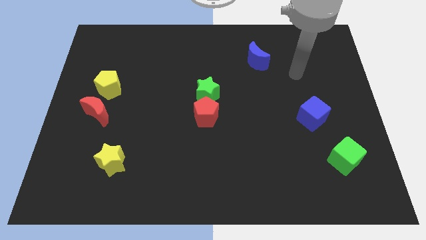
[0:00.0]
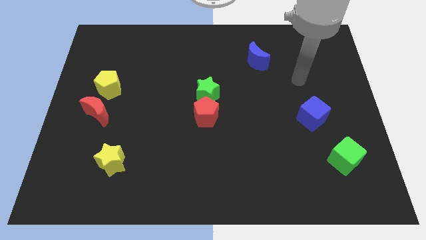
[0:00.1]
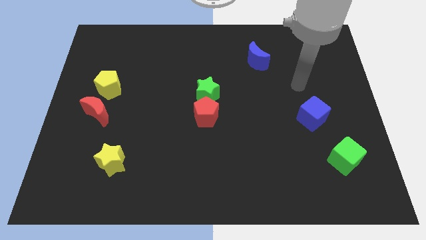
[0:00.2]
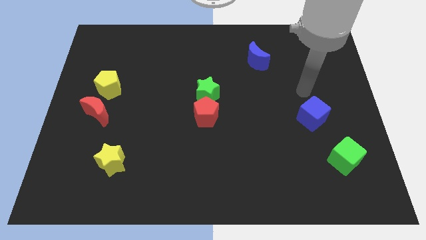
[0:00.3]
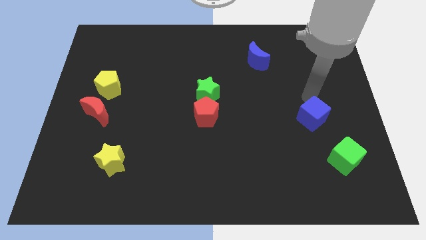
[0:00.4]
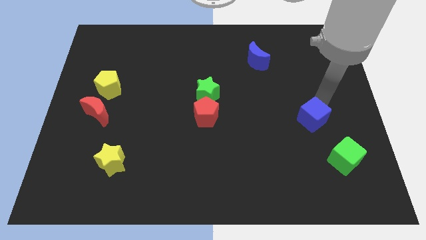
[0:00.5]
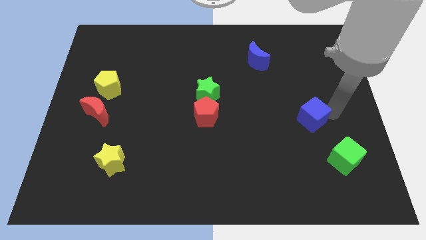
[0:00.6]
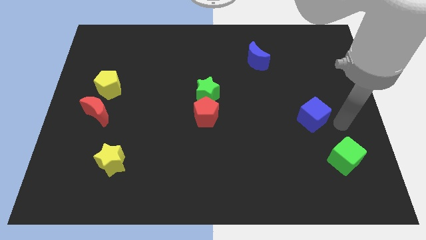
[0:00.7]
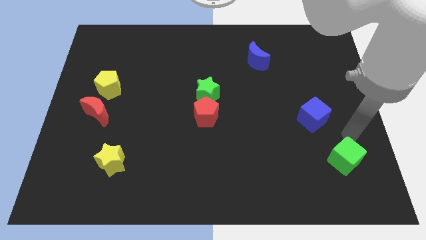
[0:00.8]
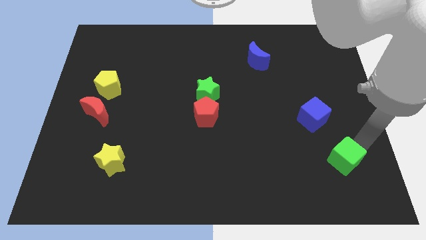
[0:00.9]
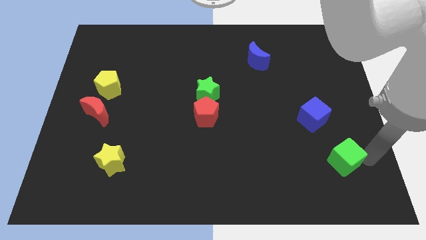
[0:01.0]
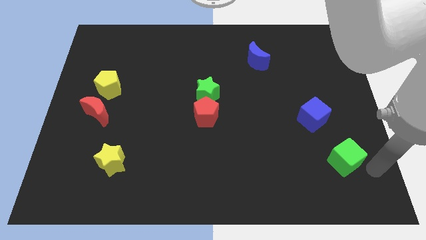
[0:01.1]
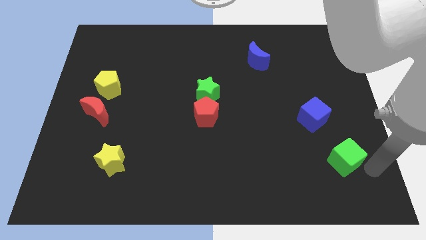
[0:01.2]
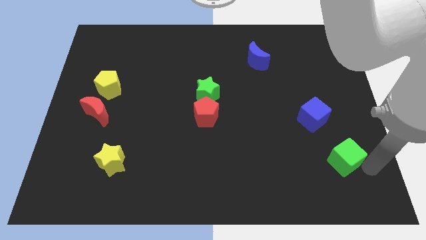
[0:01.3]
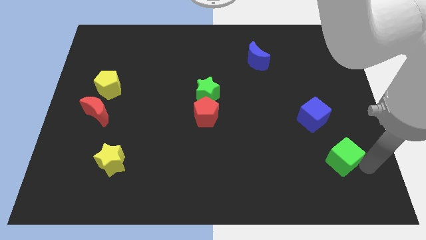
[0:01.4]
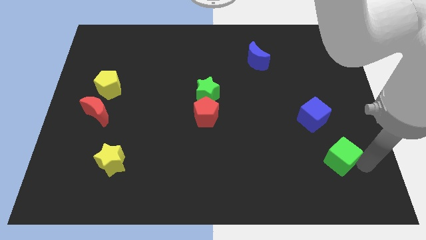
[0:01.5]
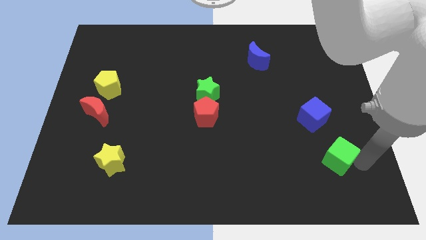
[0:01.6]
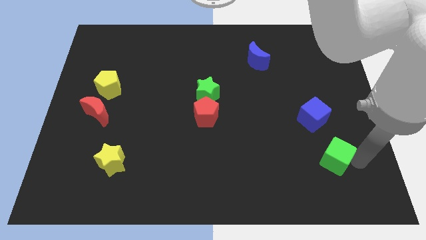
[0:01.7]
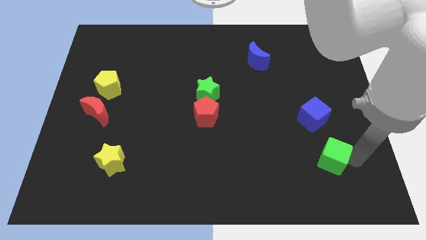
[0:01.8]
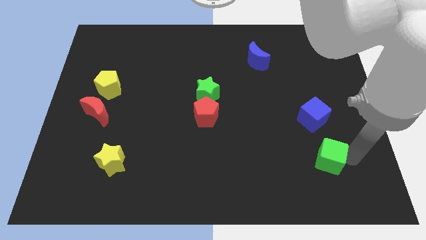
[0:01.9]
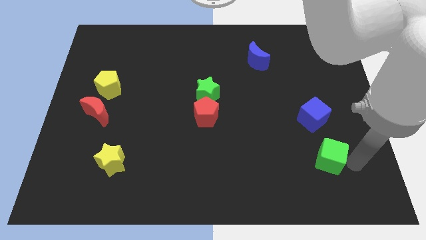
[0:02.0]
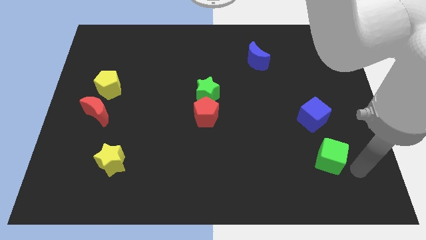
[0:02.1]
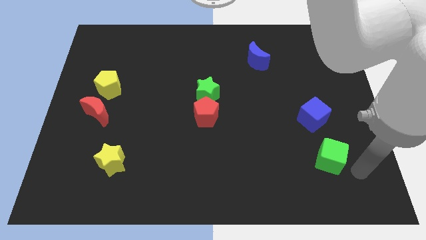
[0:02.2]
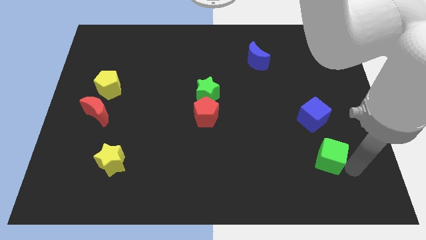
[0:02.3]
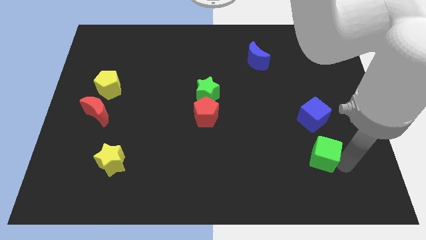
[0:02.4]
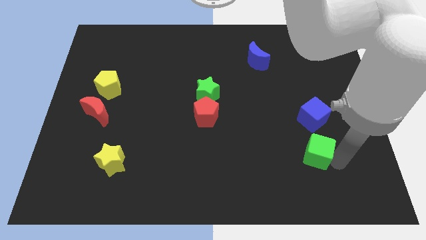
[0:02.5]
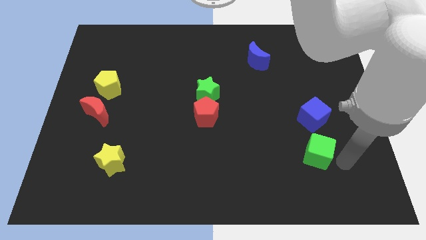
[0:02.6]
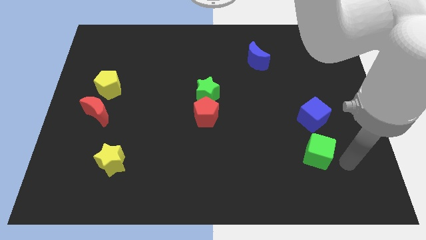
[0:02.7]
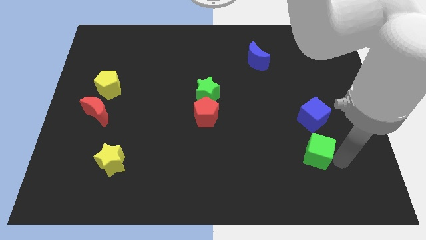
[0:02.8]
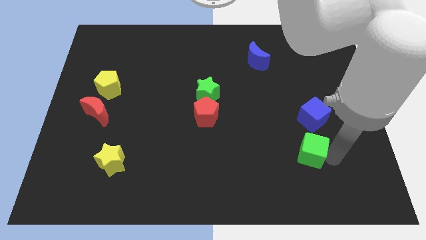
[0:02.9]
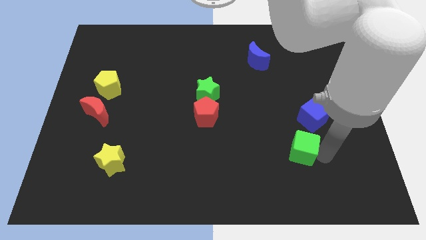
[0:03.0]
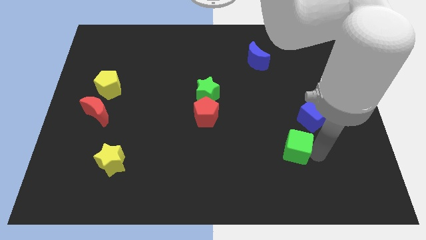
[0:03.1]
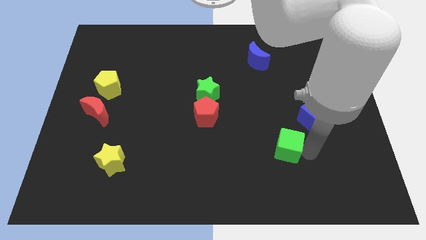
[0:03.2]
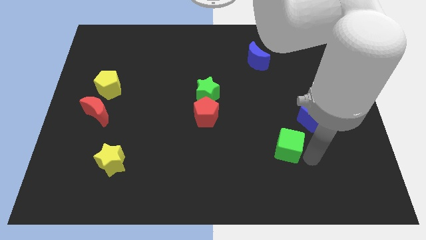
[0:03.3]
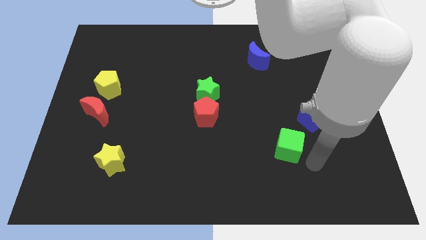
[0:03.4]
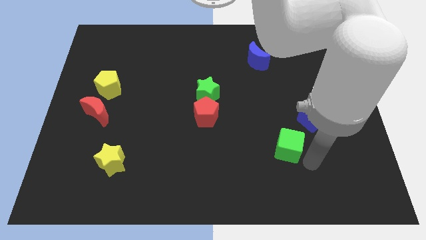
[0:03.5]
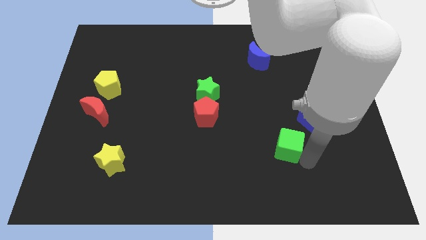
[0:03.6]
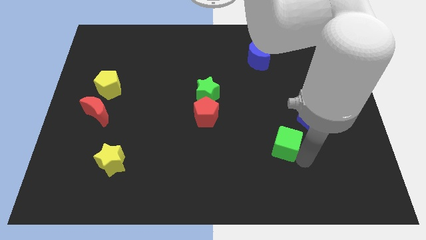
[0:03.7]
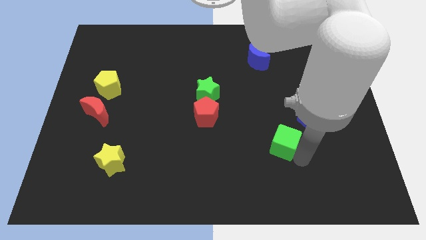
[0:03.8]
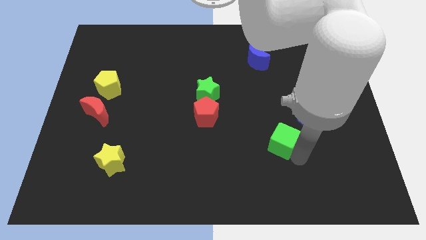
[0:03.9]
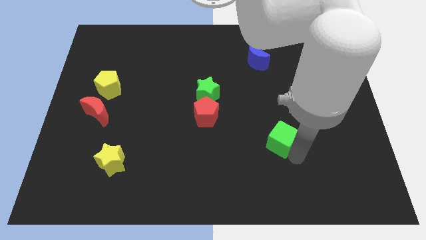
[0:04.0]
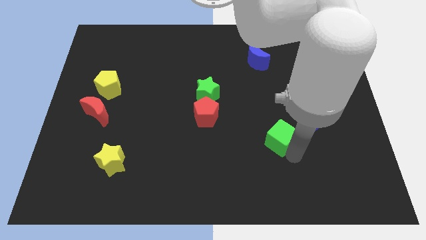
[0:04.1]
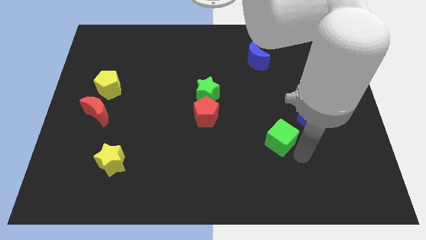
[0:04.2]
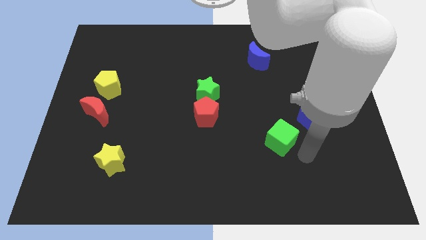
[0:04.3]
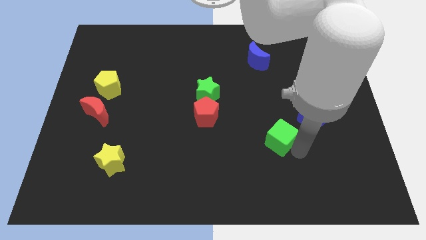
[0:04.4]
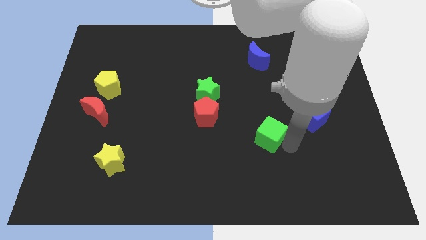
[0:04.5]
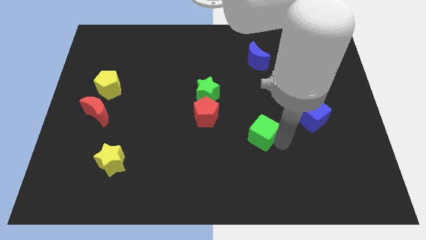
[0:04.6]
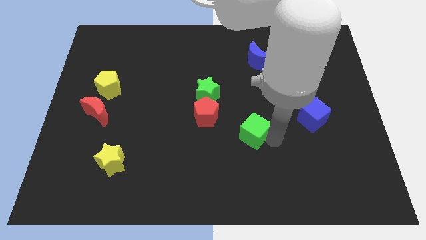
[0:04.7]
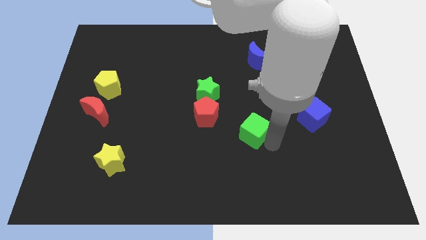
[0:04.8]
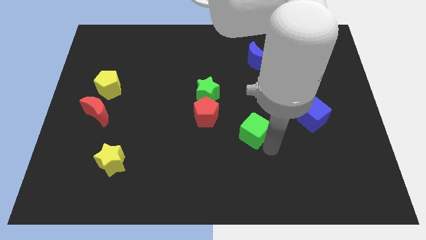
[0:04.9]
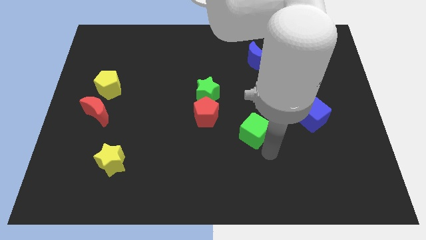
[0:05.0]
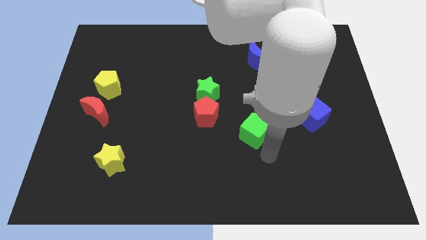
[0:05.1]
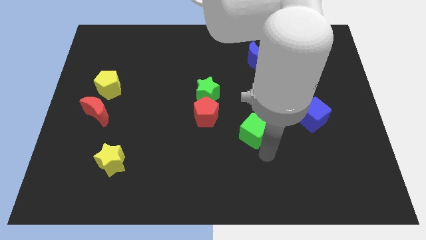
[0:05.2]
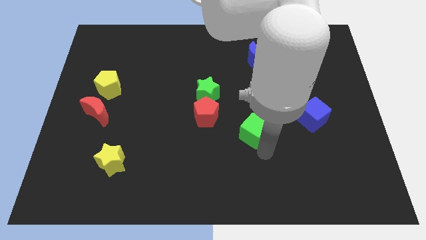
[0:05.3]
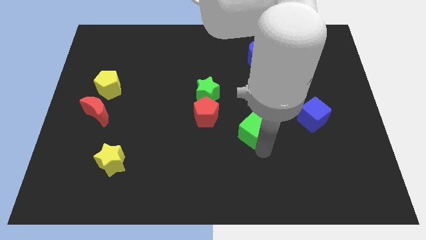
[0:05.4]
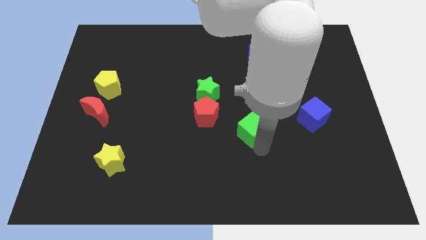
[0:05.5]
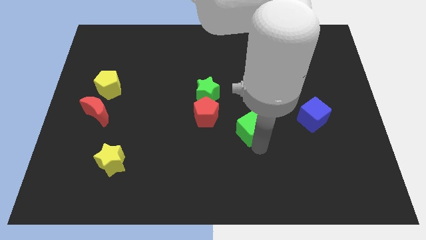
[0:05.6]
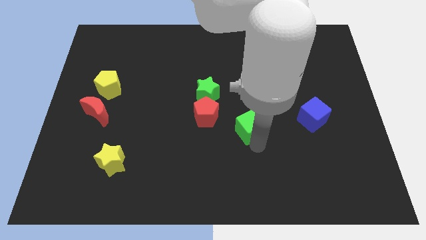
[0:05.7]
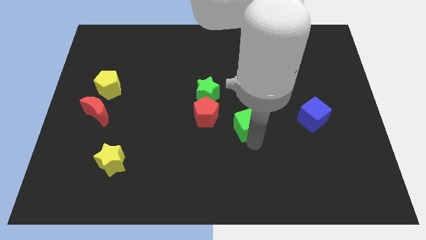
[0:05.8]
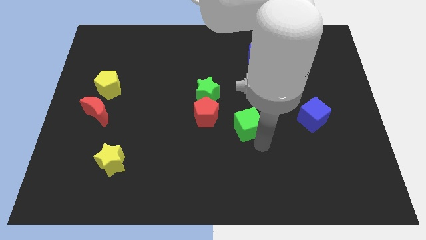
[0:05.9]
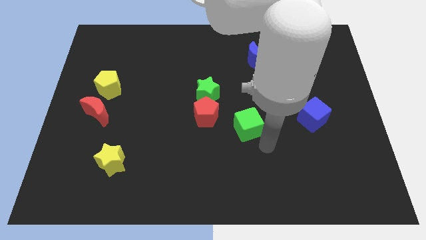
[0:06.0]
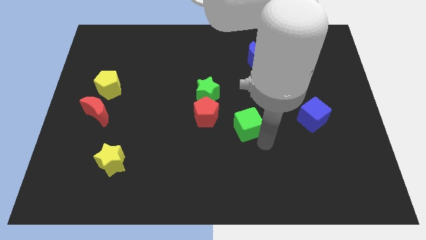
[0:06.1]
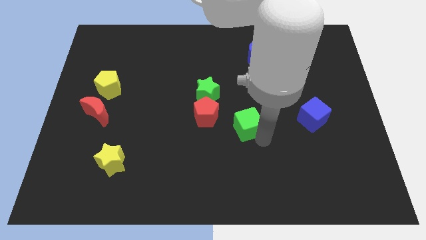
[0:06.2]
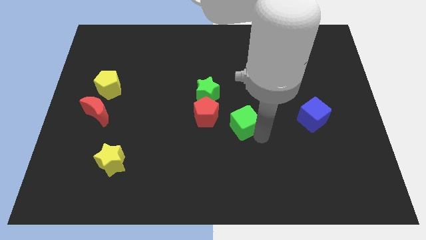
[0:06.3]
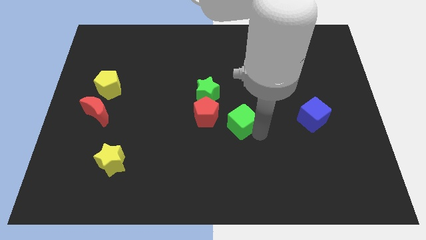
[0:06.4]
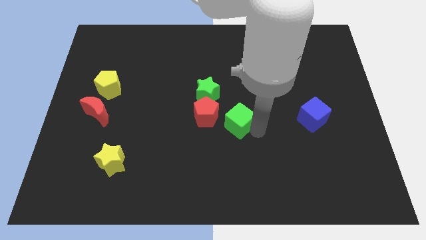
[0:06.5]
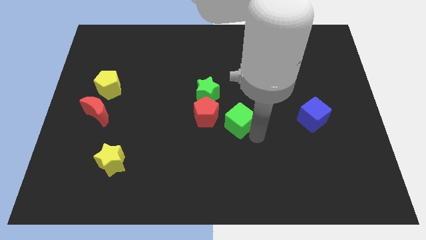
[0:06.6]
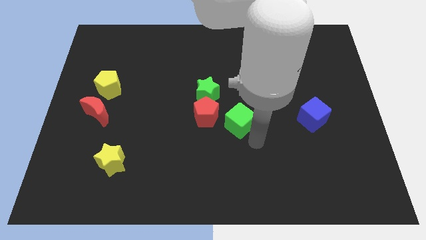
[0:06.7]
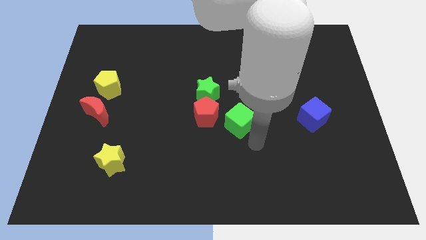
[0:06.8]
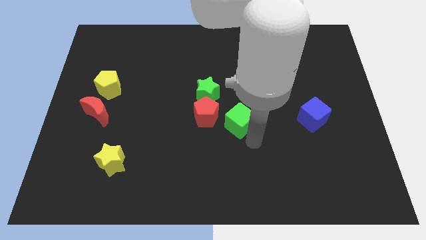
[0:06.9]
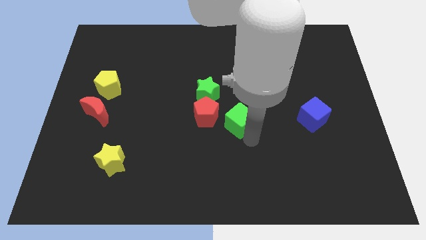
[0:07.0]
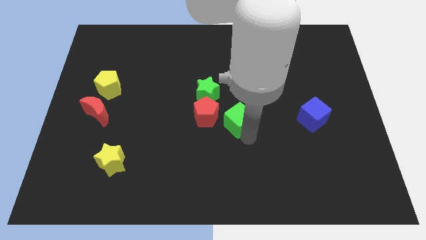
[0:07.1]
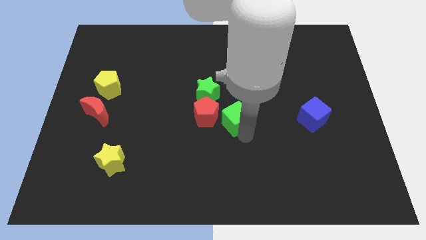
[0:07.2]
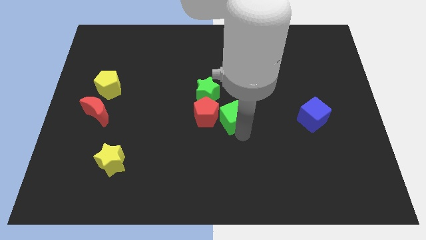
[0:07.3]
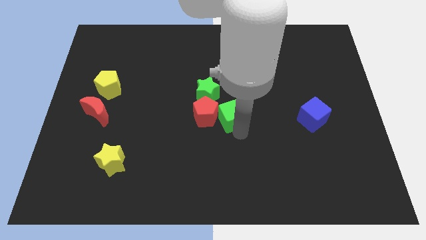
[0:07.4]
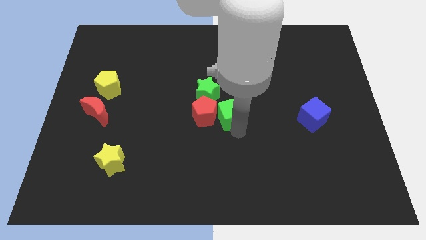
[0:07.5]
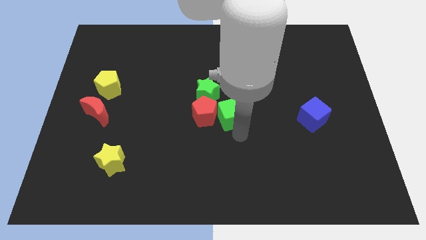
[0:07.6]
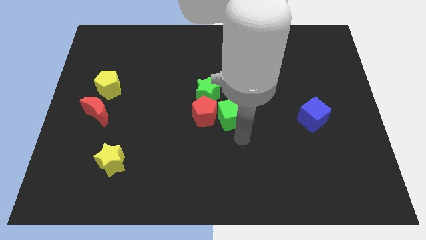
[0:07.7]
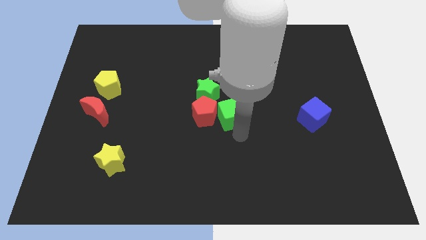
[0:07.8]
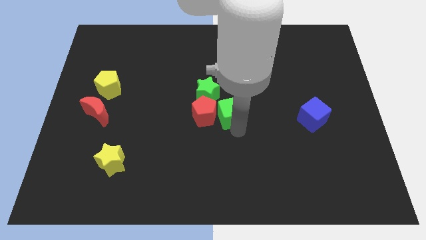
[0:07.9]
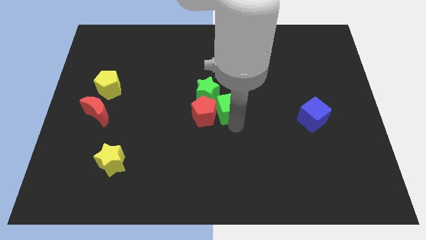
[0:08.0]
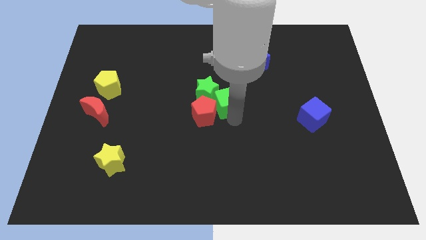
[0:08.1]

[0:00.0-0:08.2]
move the green cube to the green star
